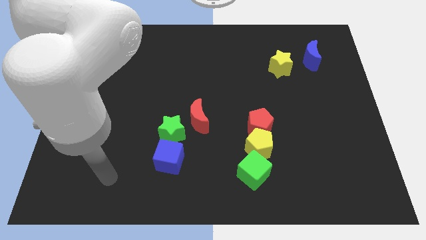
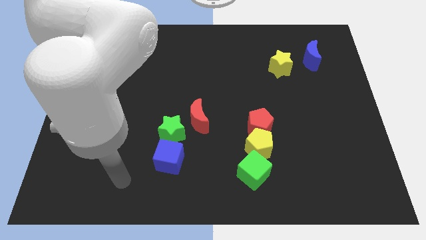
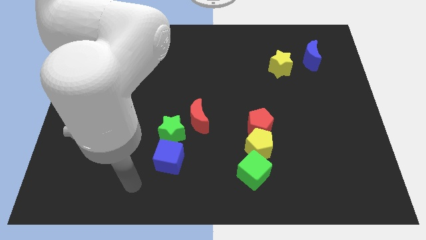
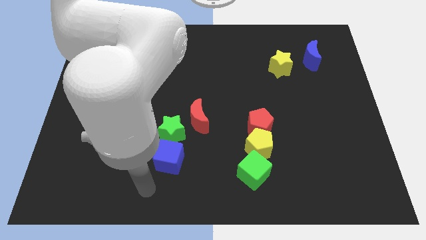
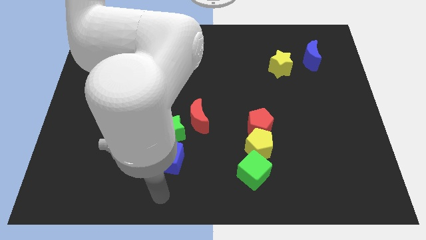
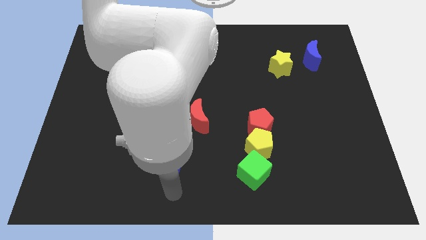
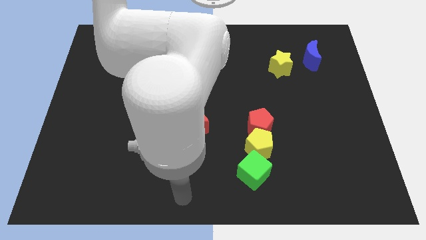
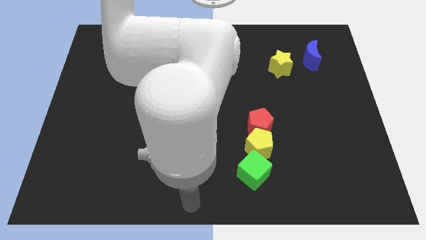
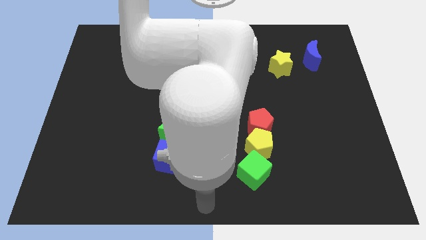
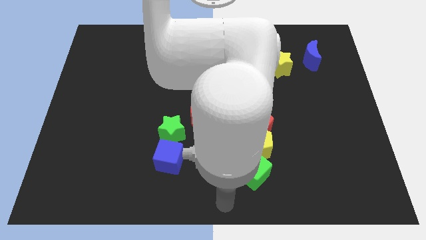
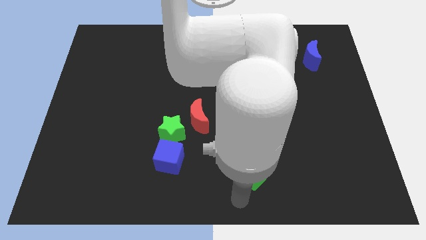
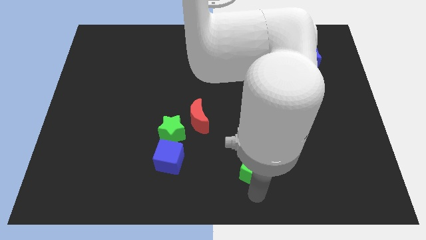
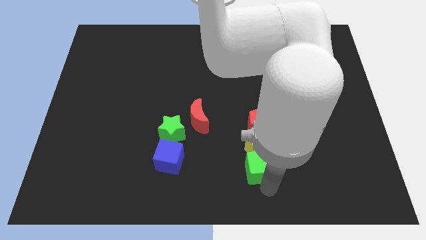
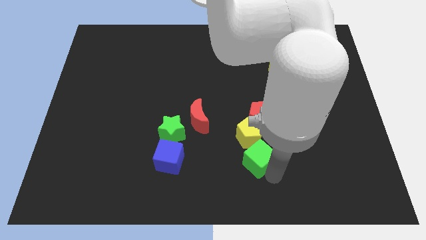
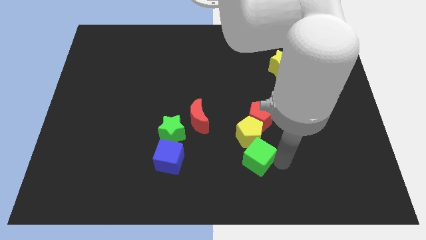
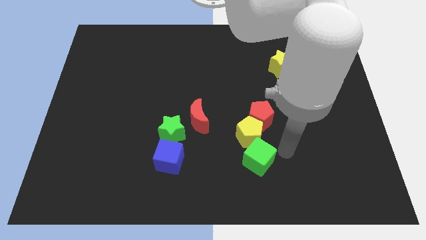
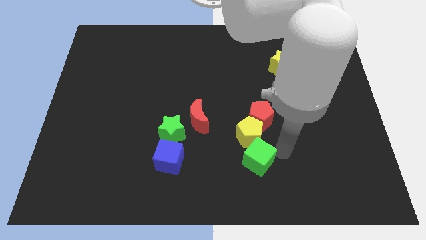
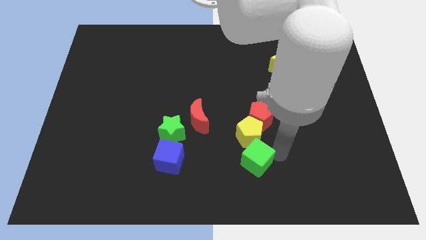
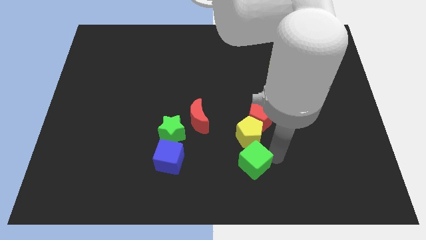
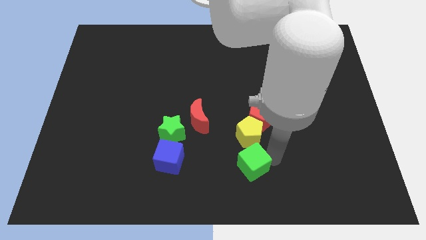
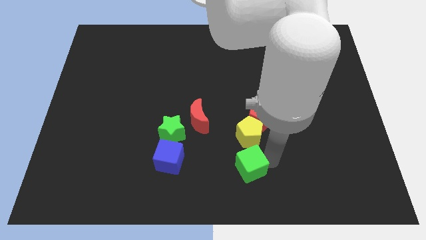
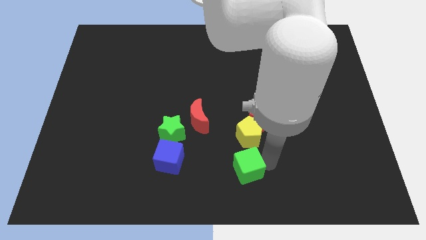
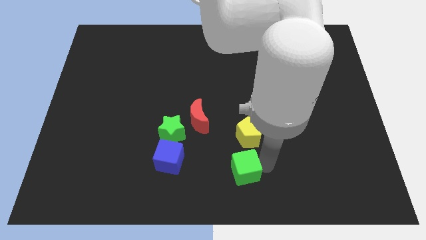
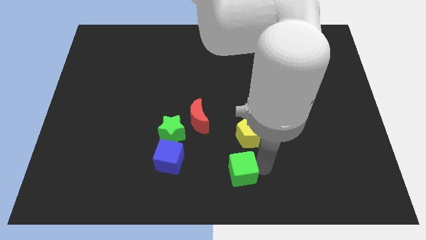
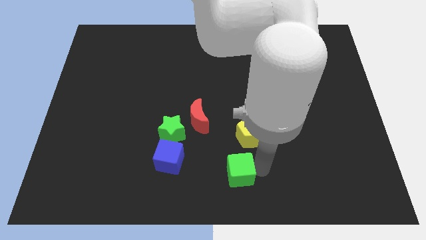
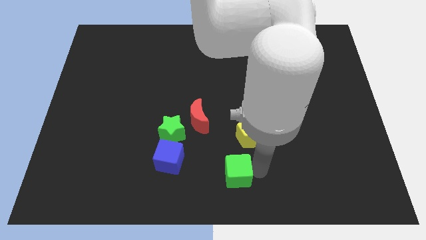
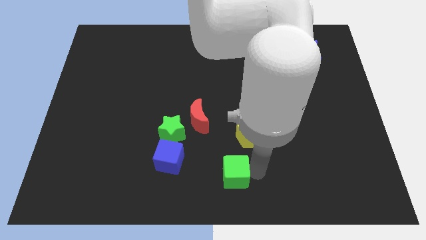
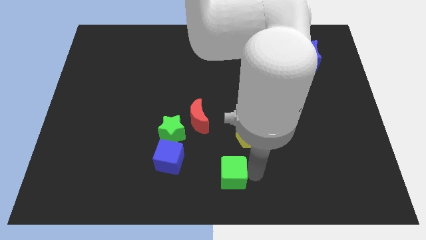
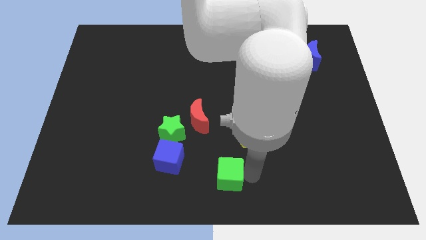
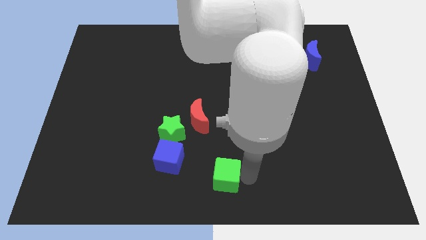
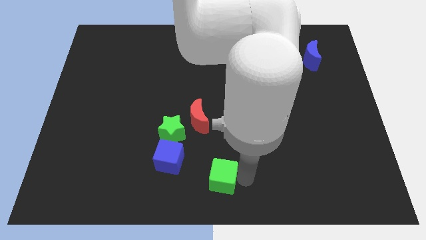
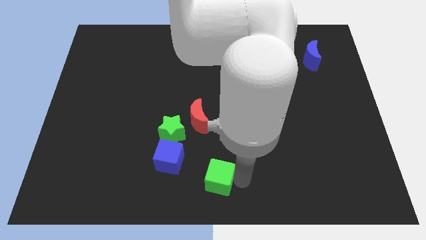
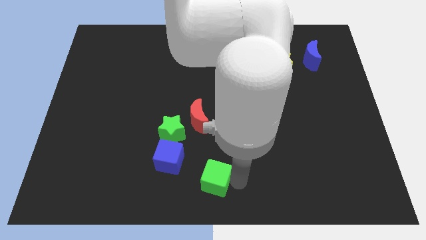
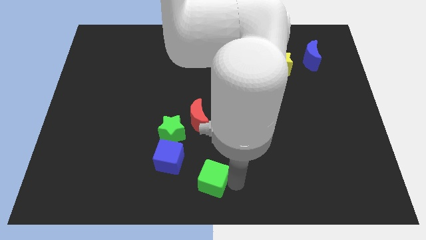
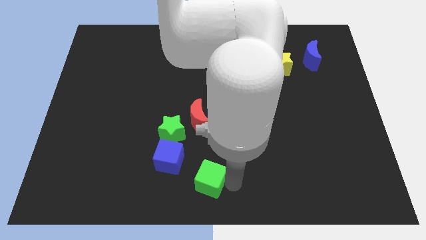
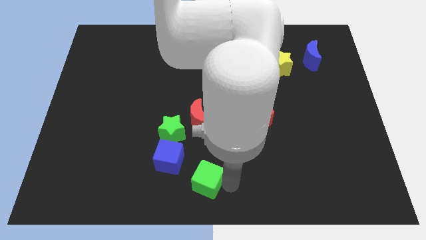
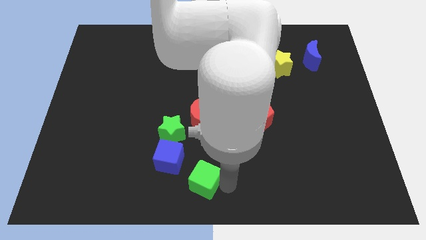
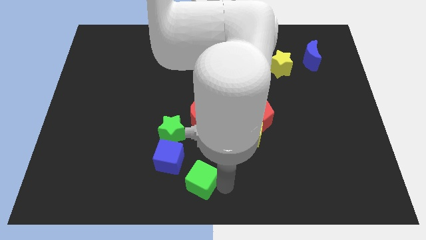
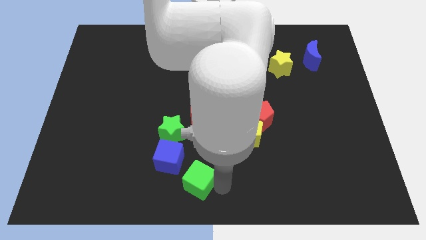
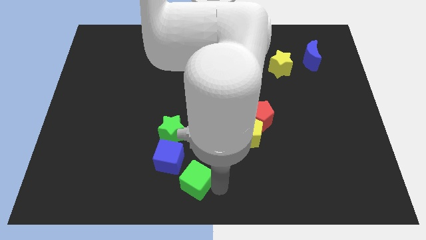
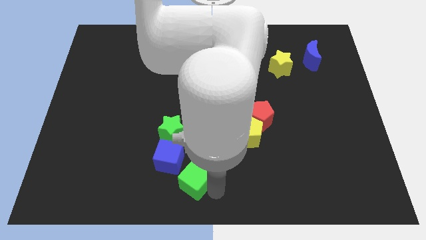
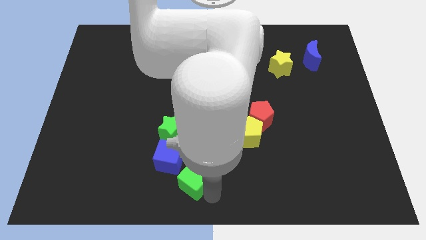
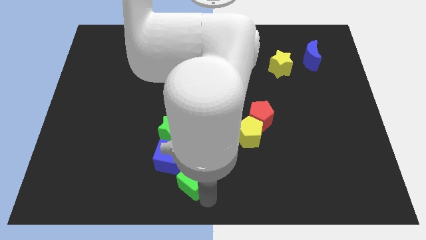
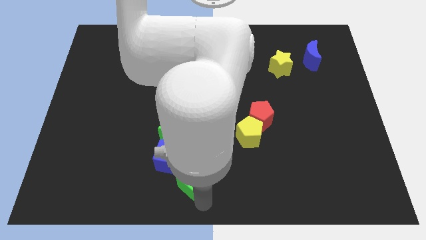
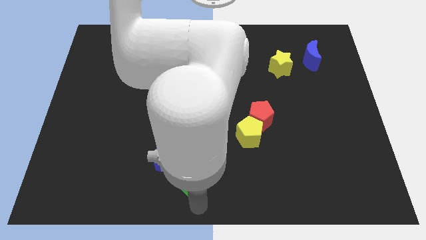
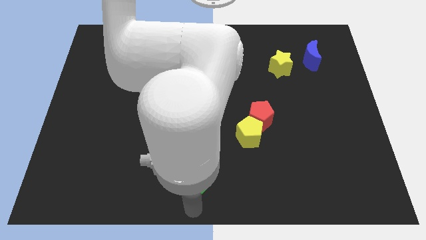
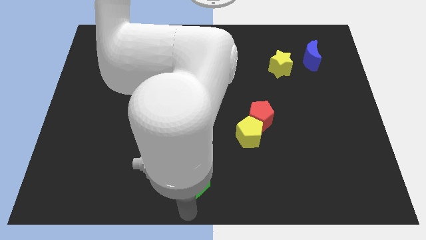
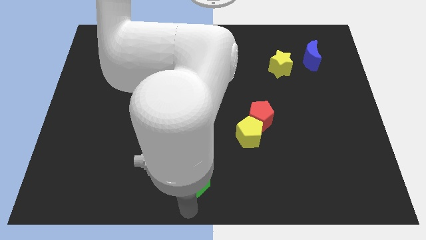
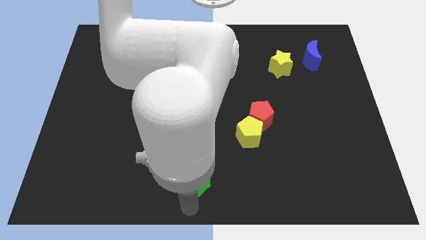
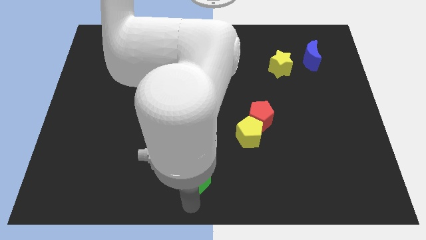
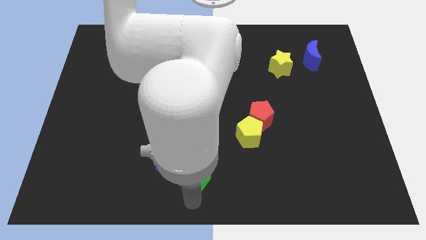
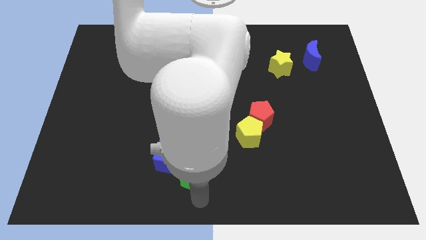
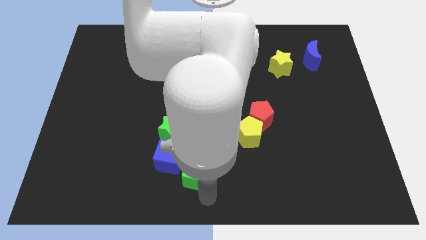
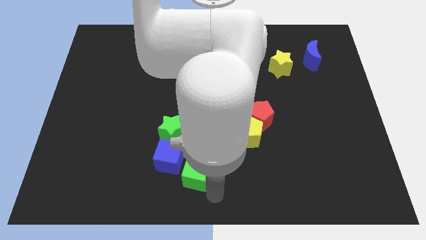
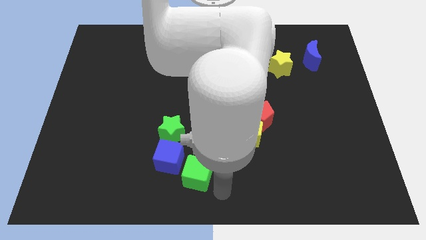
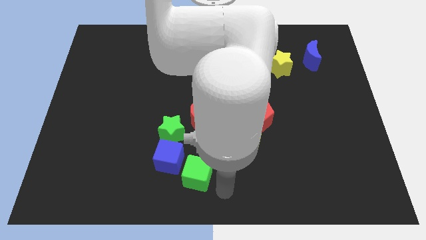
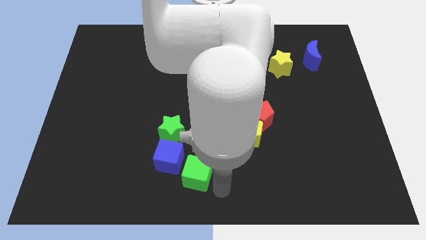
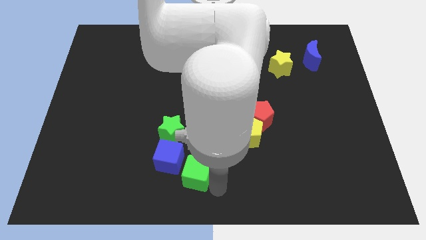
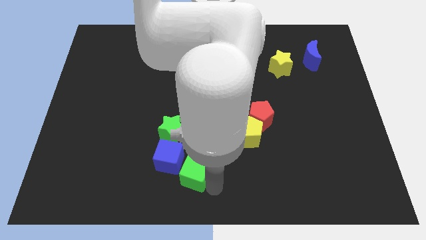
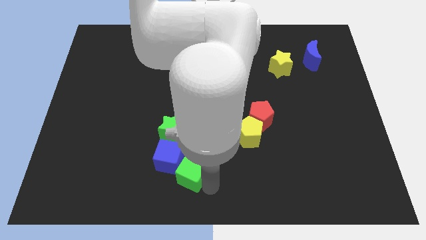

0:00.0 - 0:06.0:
slide the green cube next to the blue cube
